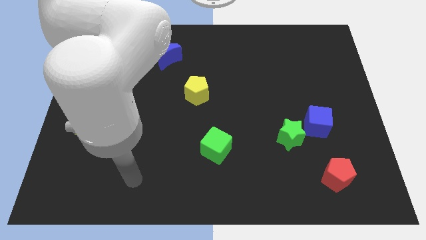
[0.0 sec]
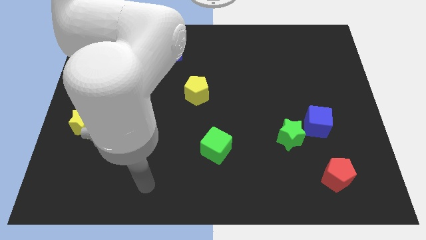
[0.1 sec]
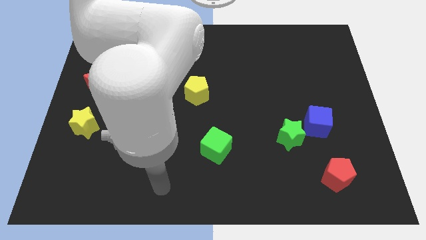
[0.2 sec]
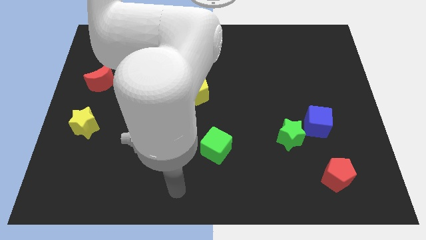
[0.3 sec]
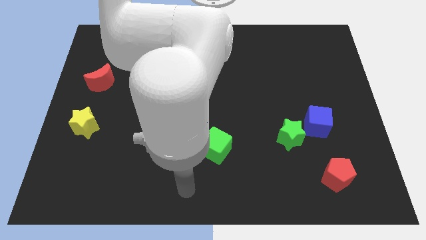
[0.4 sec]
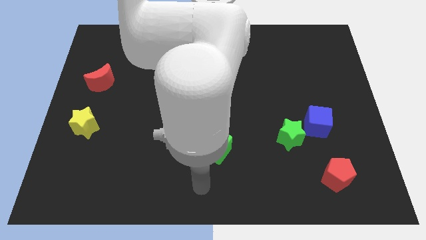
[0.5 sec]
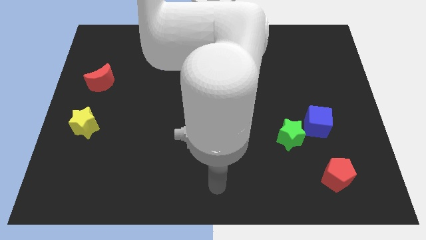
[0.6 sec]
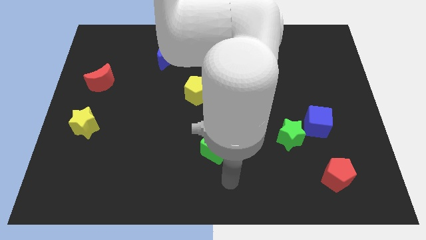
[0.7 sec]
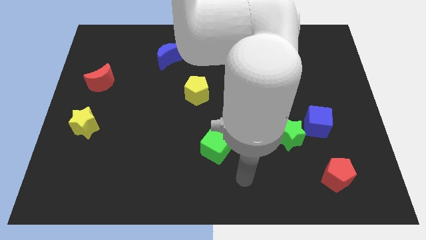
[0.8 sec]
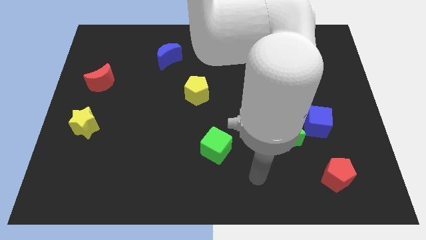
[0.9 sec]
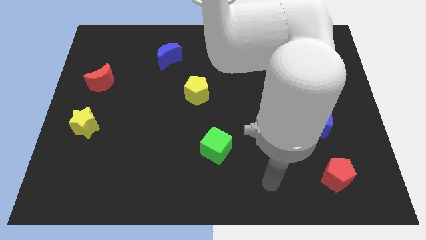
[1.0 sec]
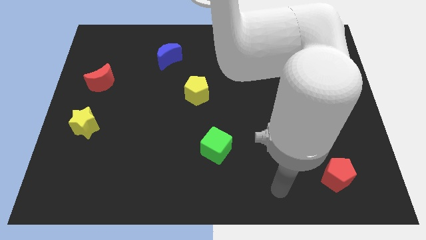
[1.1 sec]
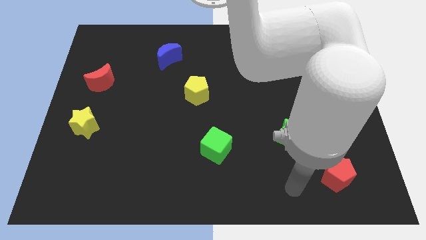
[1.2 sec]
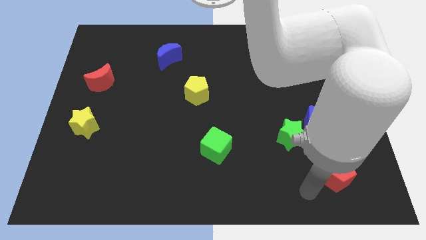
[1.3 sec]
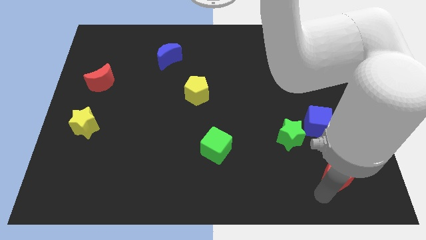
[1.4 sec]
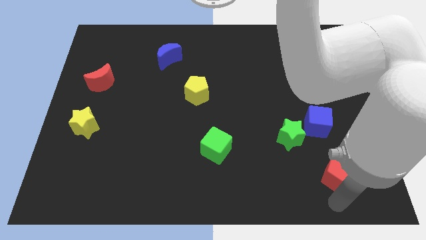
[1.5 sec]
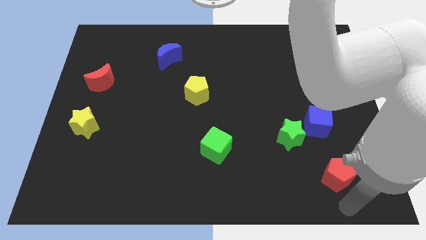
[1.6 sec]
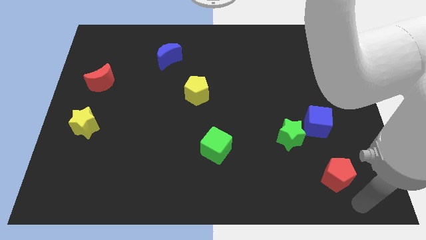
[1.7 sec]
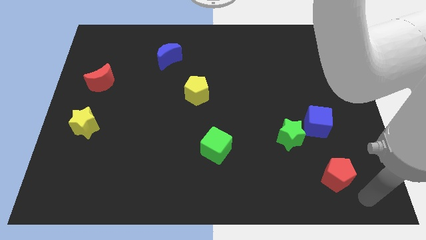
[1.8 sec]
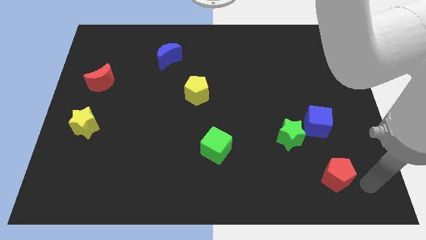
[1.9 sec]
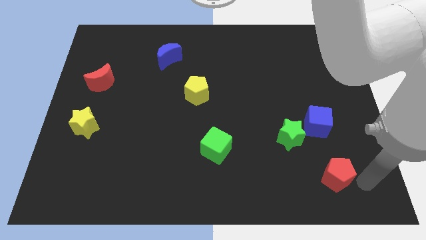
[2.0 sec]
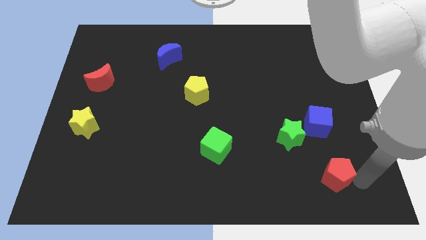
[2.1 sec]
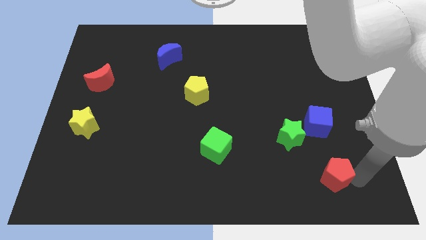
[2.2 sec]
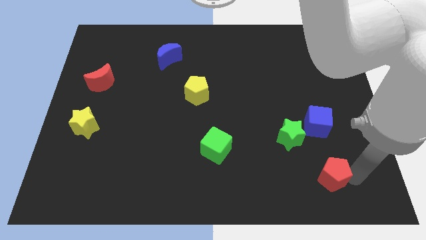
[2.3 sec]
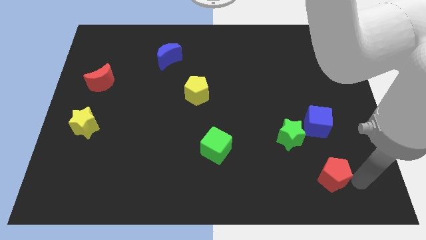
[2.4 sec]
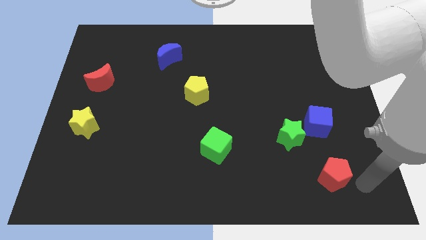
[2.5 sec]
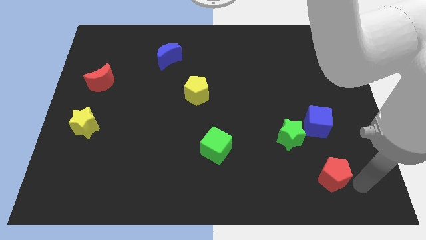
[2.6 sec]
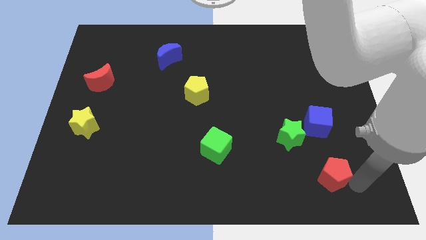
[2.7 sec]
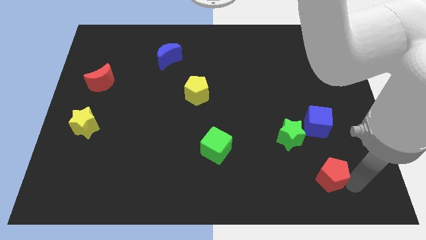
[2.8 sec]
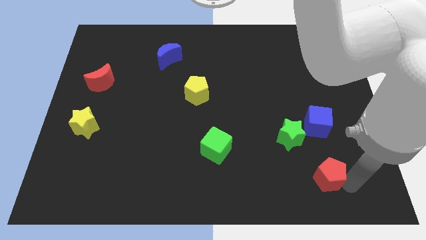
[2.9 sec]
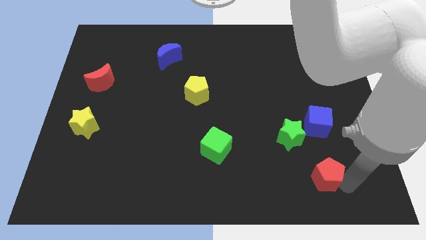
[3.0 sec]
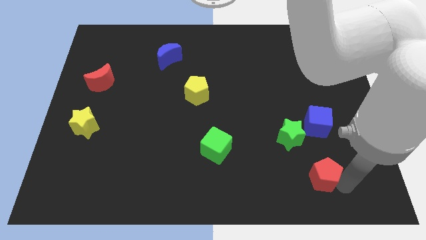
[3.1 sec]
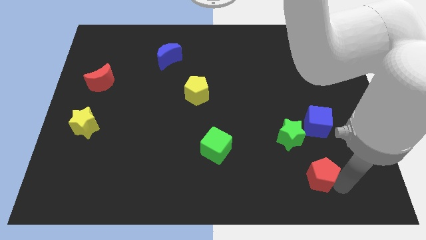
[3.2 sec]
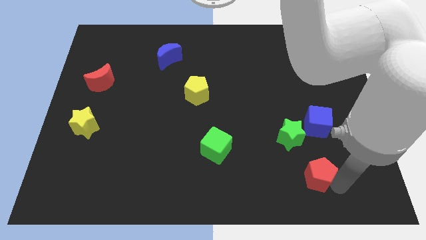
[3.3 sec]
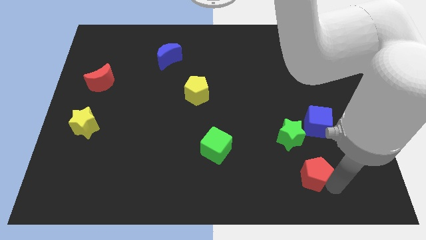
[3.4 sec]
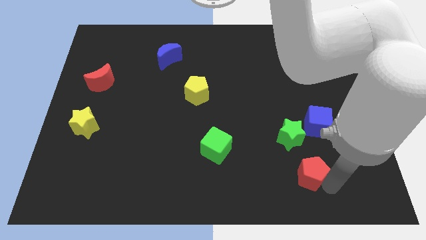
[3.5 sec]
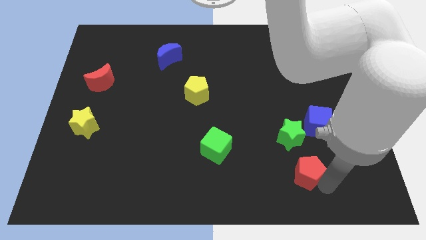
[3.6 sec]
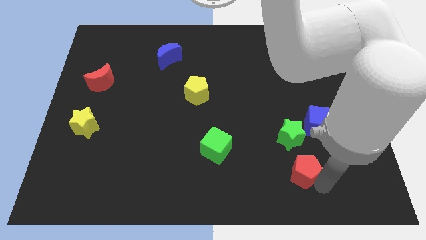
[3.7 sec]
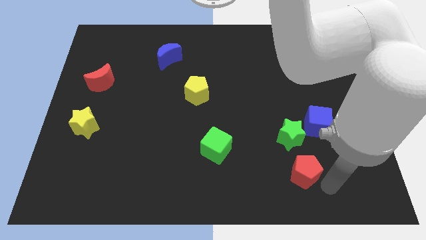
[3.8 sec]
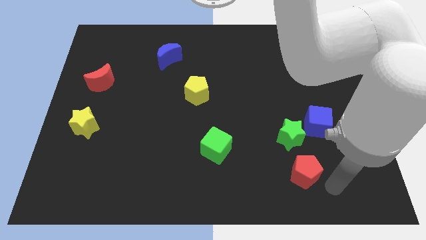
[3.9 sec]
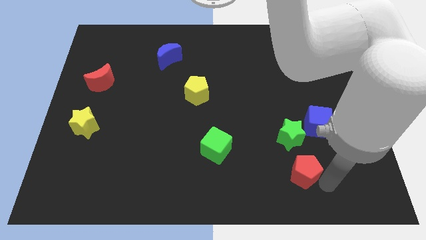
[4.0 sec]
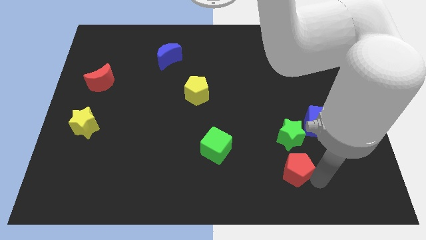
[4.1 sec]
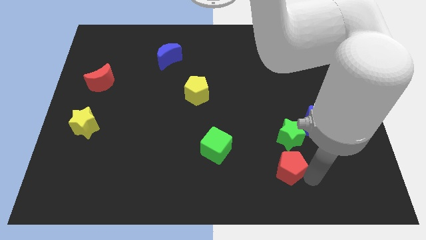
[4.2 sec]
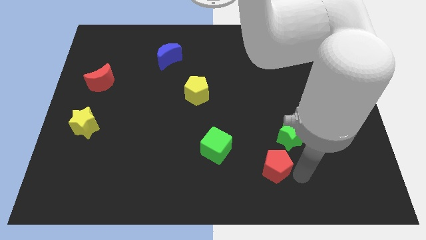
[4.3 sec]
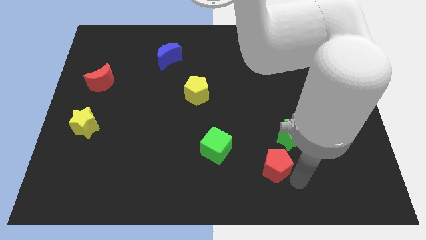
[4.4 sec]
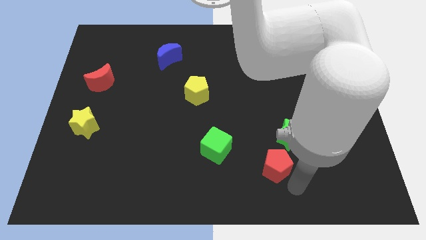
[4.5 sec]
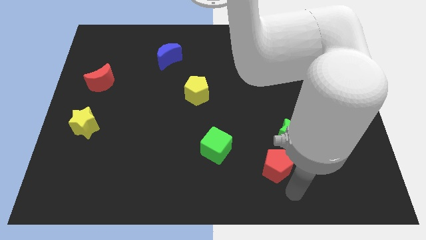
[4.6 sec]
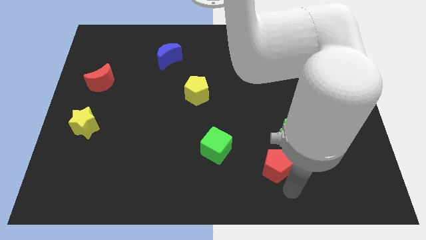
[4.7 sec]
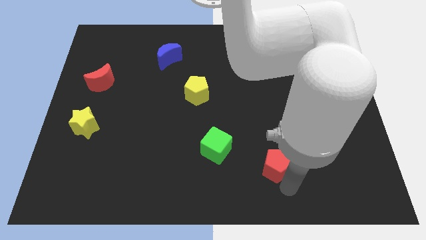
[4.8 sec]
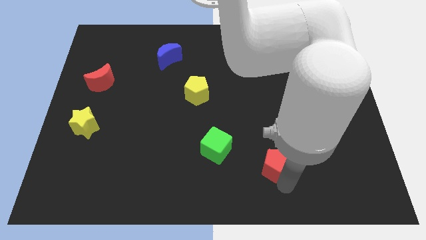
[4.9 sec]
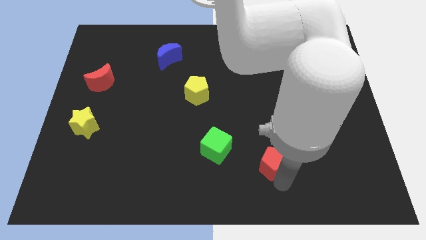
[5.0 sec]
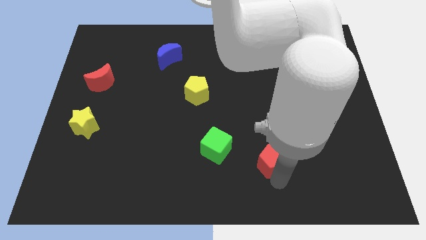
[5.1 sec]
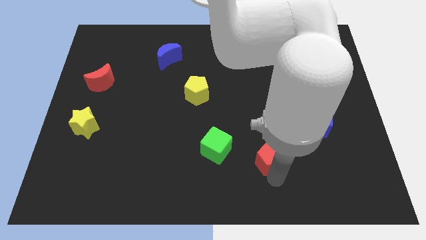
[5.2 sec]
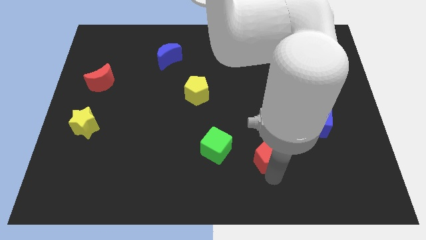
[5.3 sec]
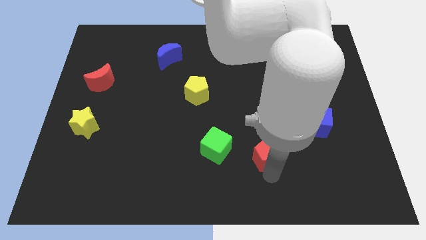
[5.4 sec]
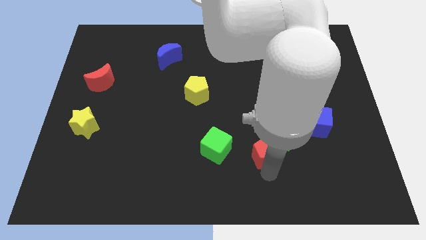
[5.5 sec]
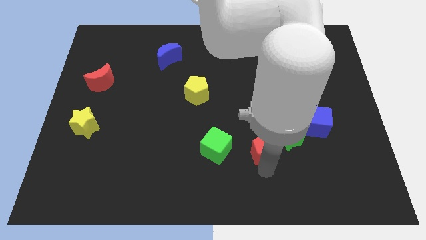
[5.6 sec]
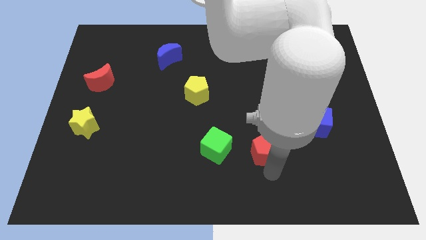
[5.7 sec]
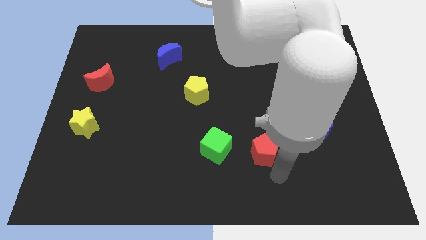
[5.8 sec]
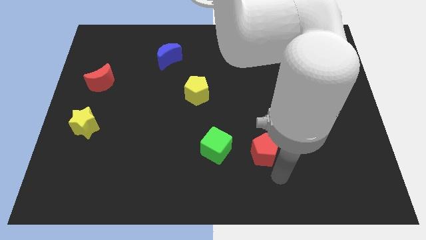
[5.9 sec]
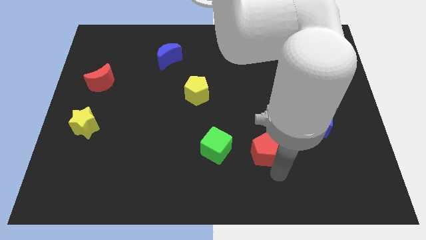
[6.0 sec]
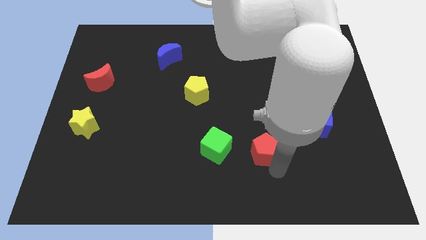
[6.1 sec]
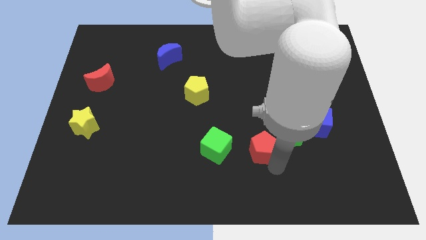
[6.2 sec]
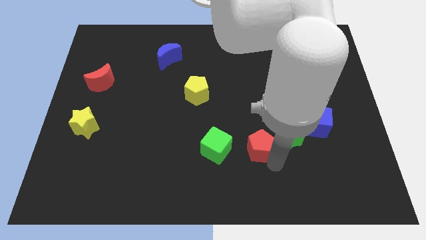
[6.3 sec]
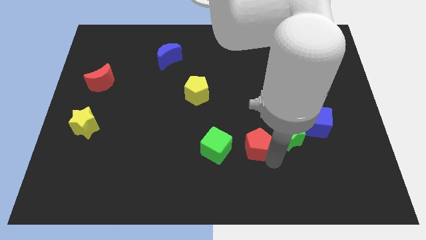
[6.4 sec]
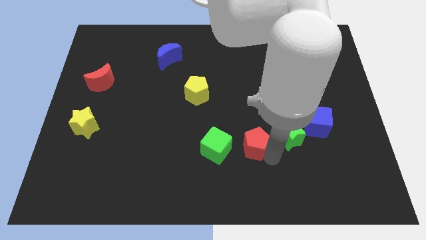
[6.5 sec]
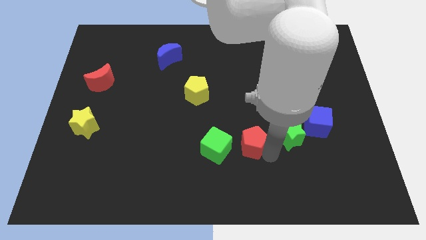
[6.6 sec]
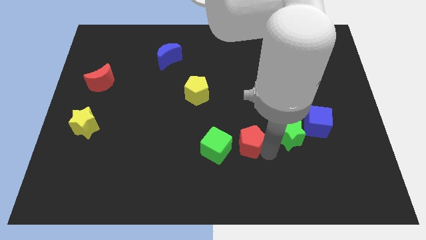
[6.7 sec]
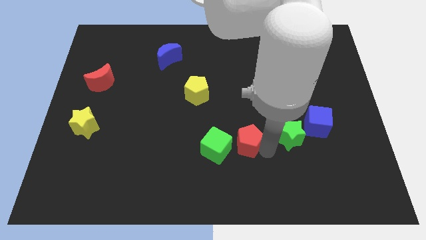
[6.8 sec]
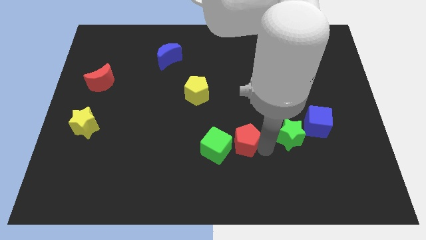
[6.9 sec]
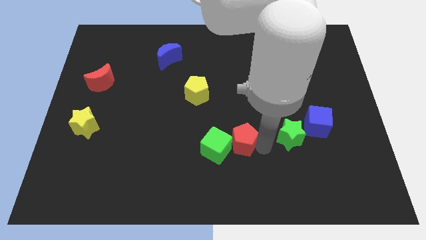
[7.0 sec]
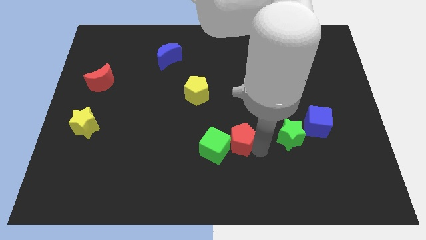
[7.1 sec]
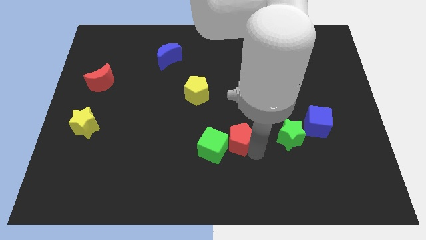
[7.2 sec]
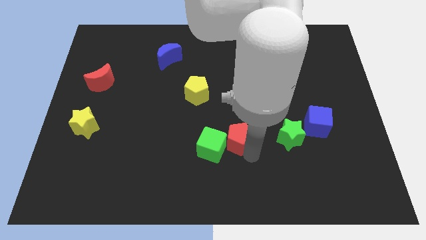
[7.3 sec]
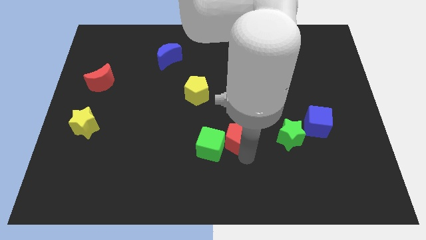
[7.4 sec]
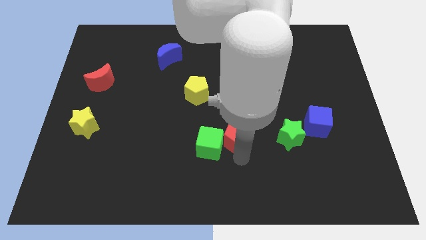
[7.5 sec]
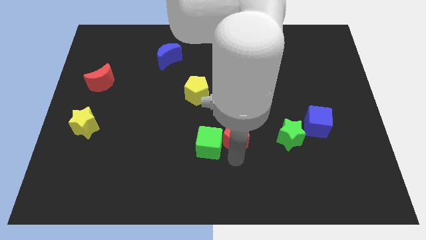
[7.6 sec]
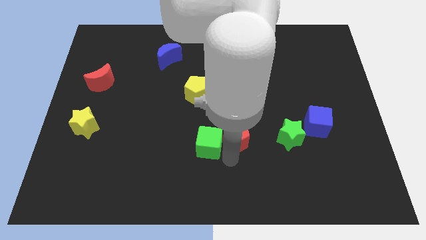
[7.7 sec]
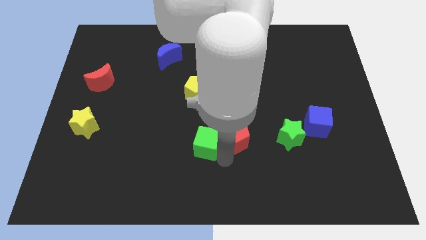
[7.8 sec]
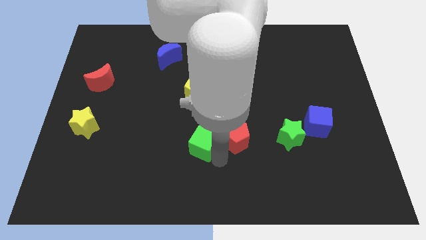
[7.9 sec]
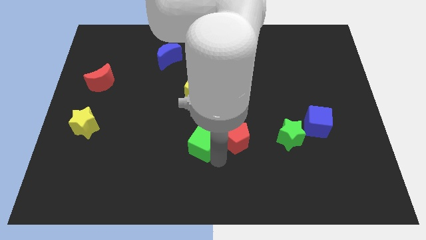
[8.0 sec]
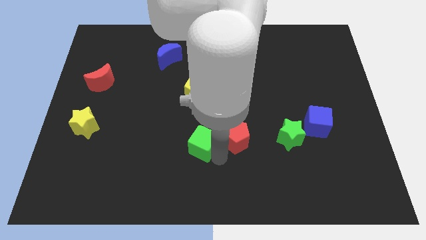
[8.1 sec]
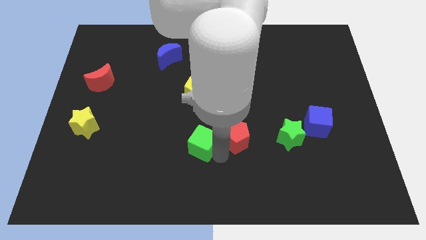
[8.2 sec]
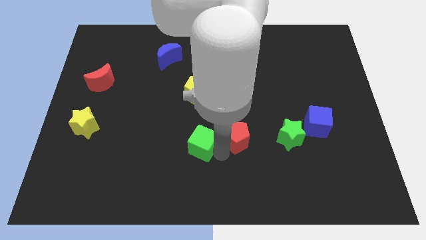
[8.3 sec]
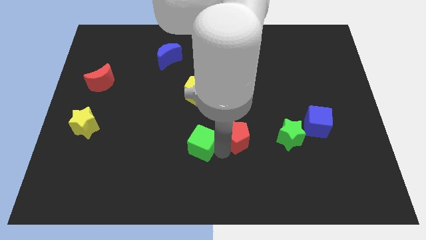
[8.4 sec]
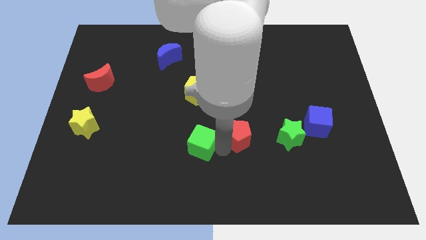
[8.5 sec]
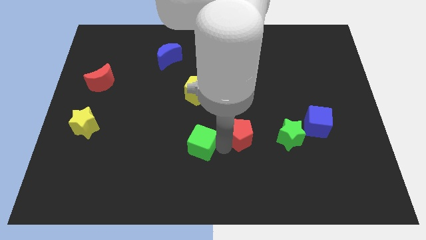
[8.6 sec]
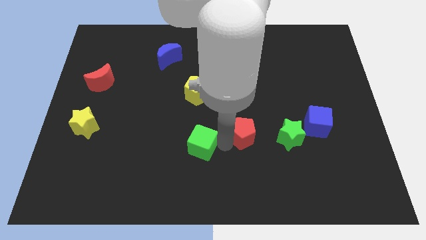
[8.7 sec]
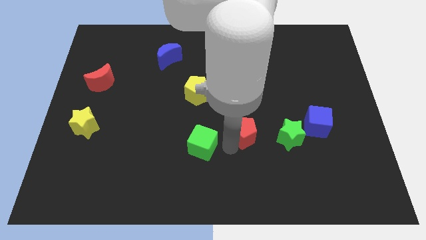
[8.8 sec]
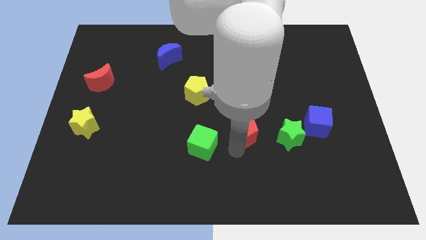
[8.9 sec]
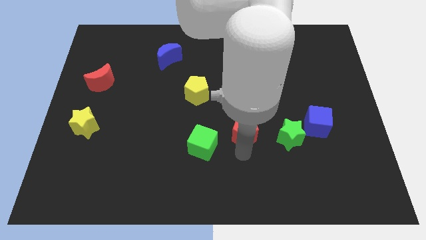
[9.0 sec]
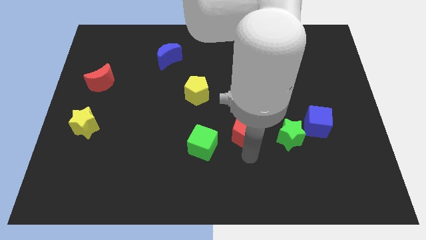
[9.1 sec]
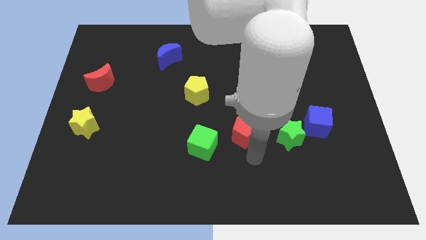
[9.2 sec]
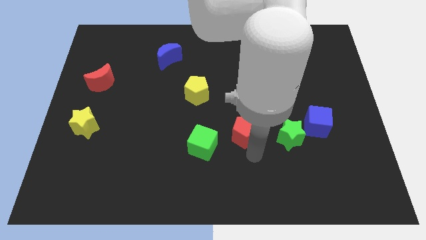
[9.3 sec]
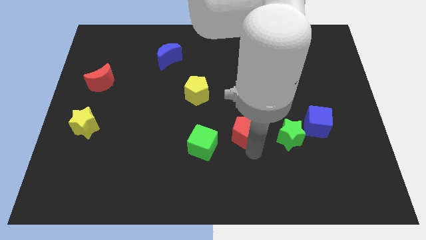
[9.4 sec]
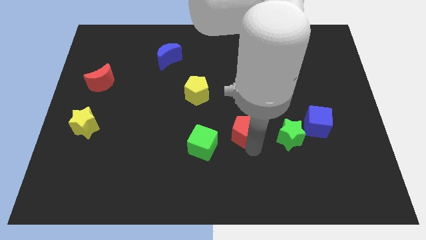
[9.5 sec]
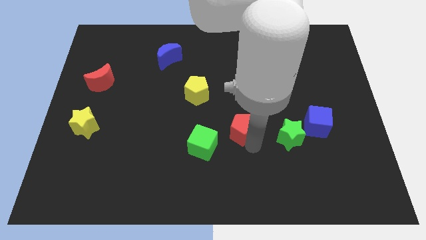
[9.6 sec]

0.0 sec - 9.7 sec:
slide the red pentagon upwards and to the left diagonally
